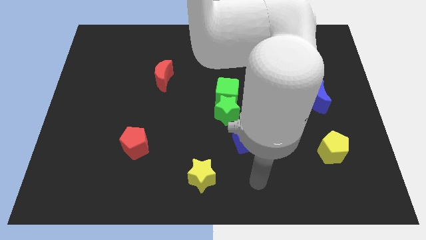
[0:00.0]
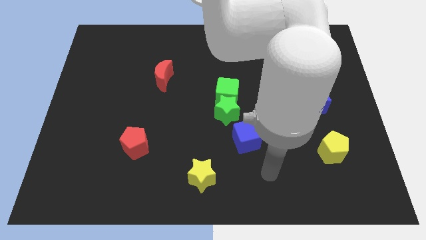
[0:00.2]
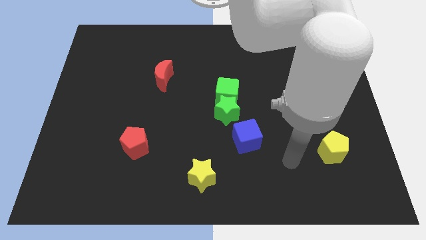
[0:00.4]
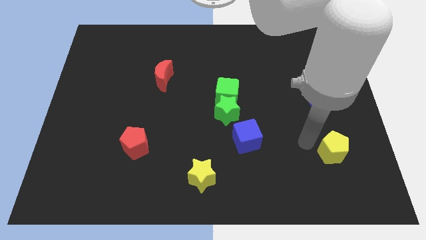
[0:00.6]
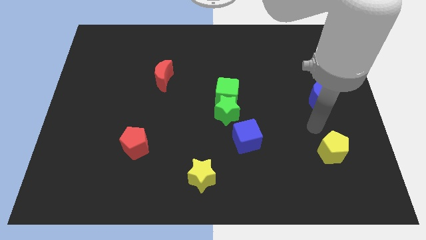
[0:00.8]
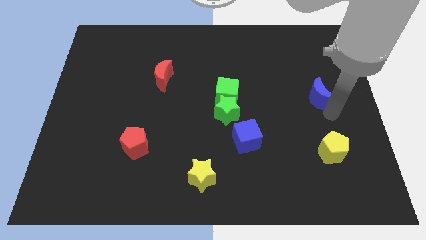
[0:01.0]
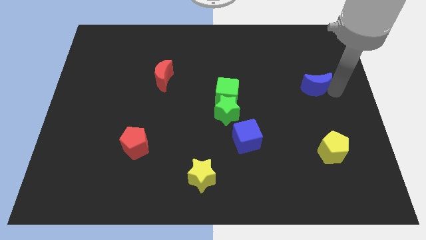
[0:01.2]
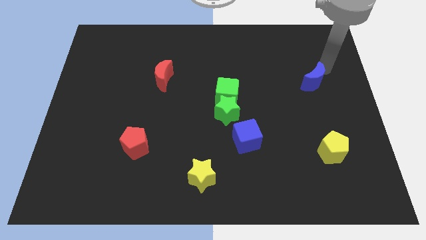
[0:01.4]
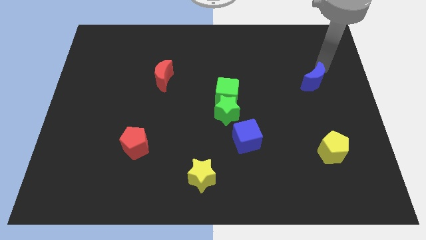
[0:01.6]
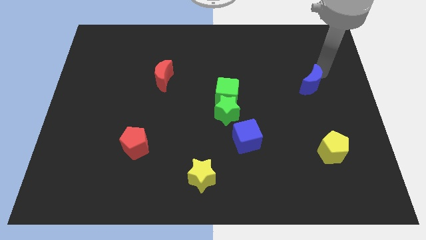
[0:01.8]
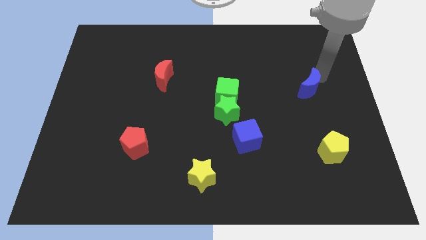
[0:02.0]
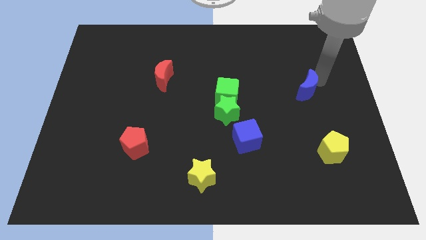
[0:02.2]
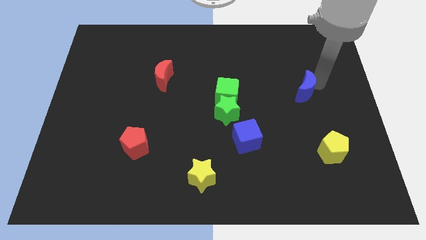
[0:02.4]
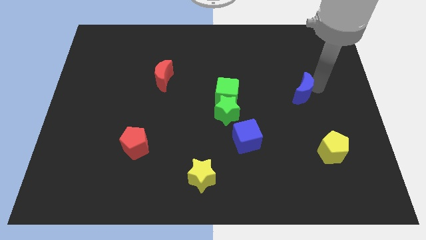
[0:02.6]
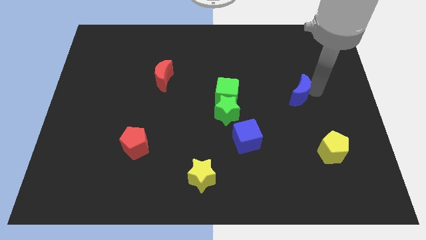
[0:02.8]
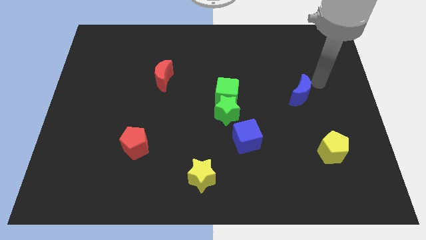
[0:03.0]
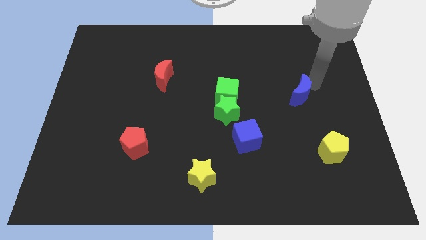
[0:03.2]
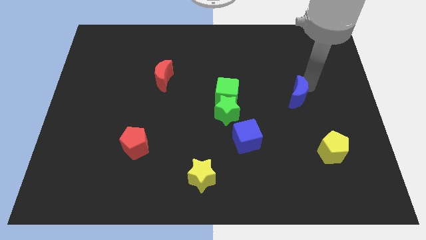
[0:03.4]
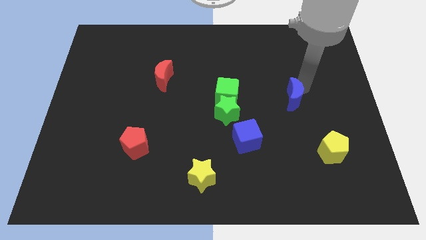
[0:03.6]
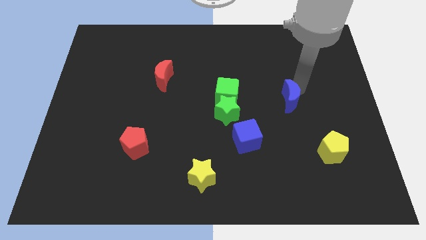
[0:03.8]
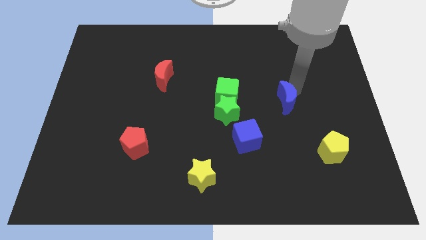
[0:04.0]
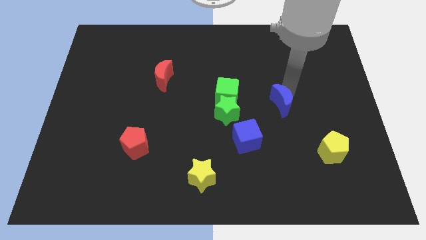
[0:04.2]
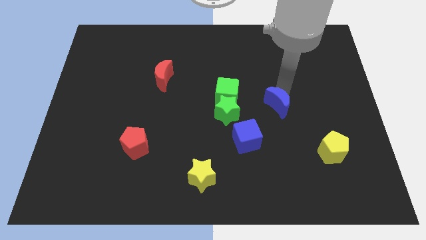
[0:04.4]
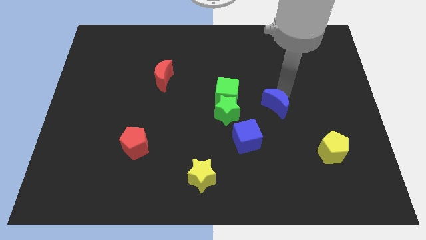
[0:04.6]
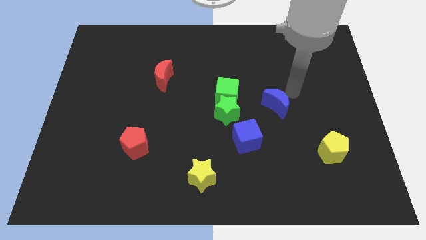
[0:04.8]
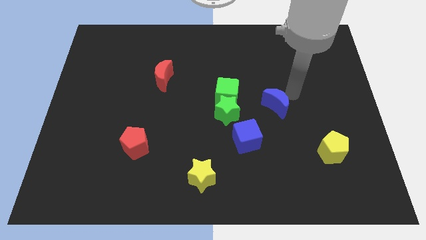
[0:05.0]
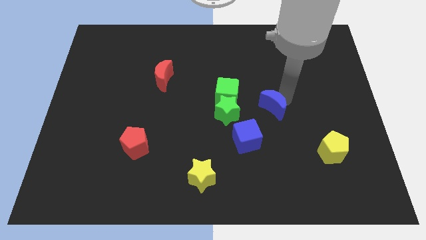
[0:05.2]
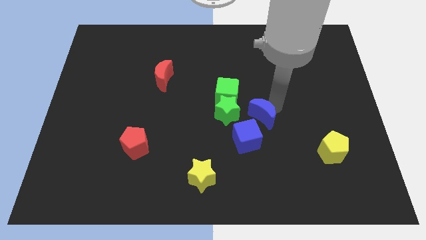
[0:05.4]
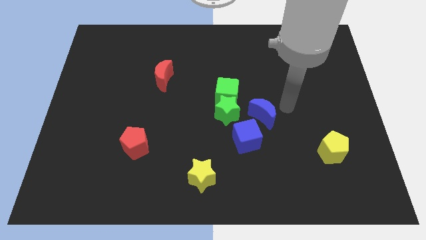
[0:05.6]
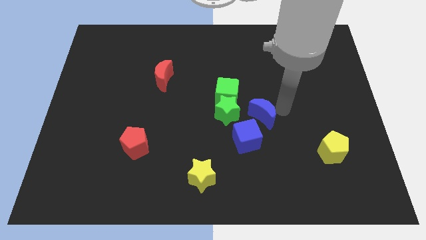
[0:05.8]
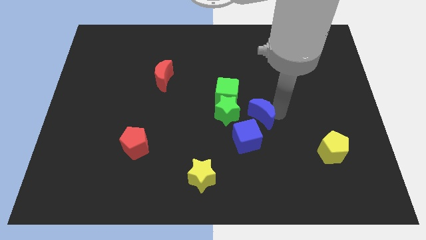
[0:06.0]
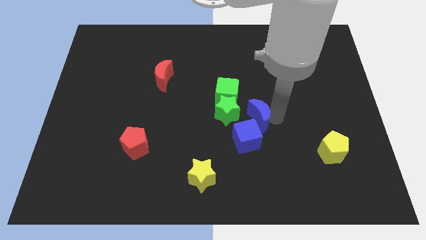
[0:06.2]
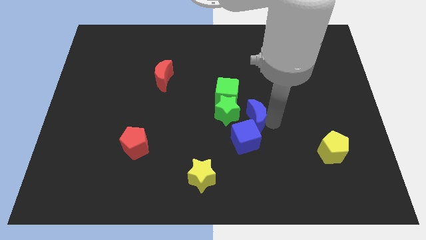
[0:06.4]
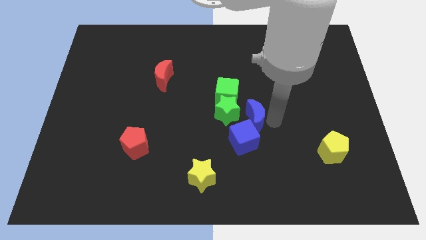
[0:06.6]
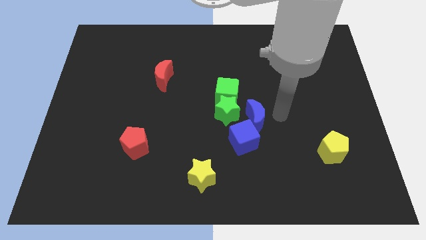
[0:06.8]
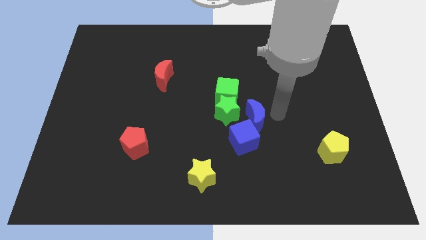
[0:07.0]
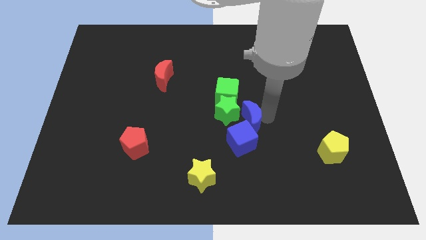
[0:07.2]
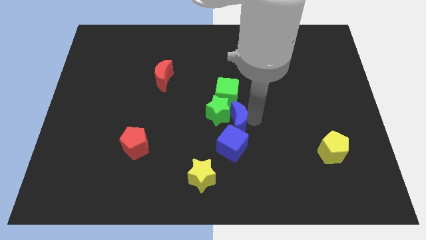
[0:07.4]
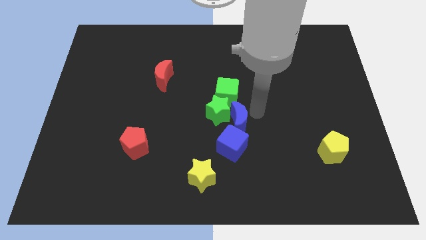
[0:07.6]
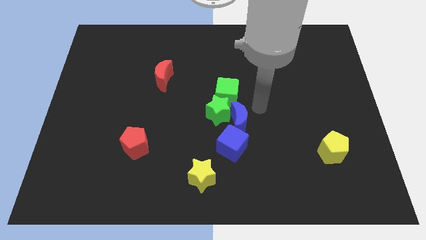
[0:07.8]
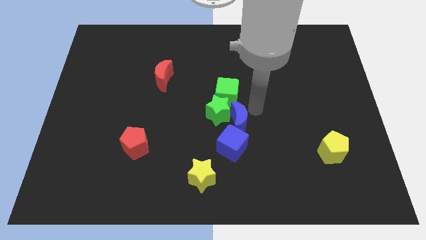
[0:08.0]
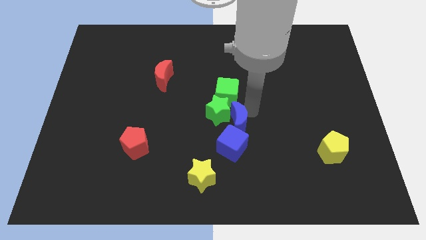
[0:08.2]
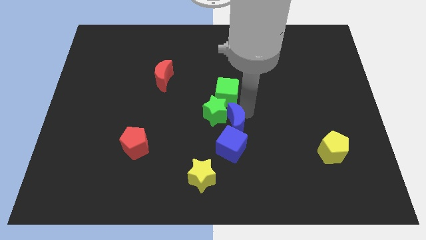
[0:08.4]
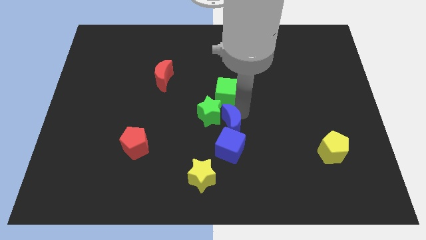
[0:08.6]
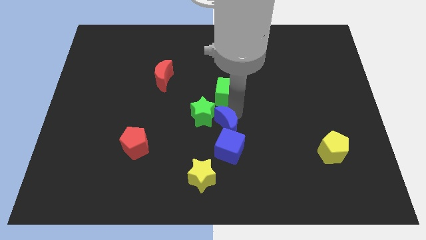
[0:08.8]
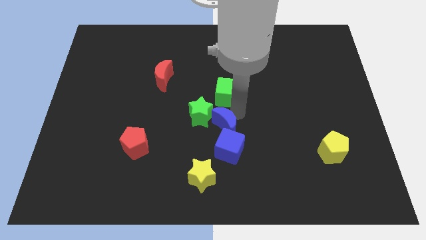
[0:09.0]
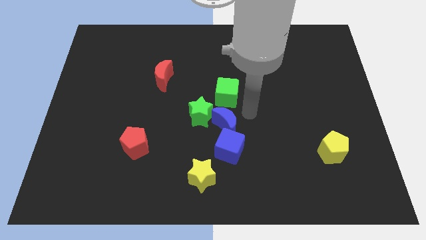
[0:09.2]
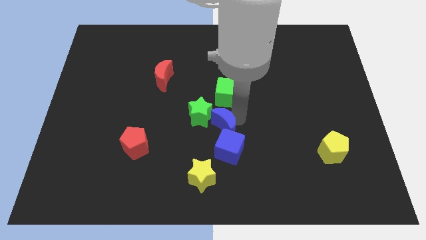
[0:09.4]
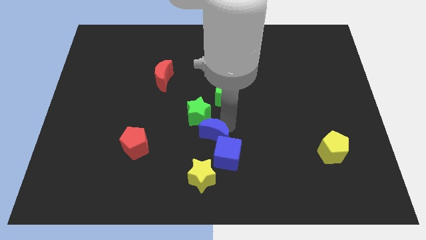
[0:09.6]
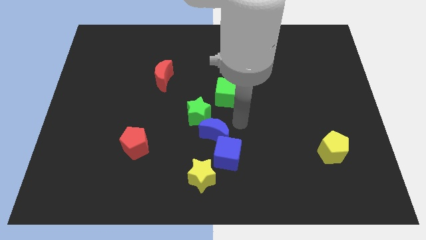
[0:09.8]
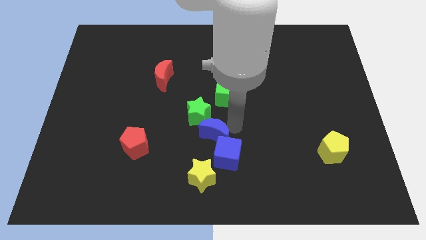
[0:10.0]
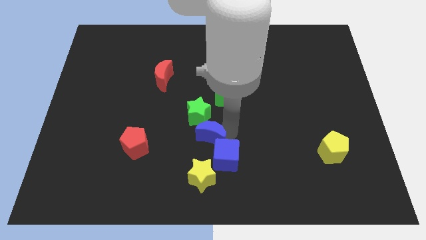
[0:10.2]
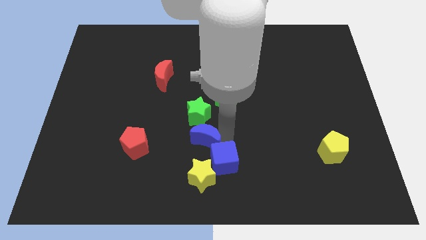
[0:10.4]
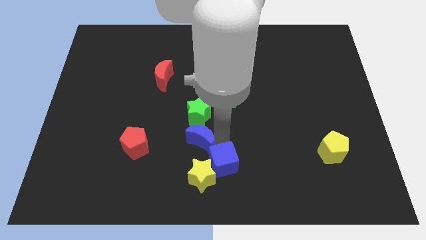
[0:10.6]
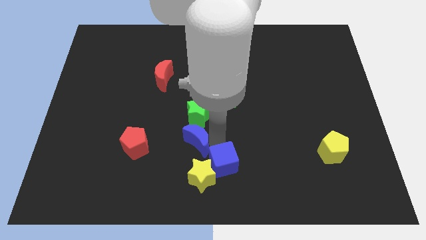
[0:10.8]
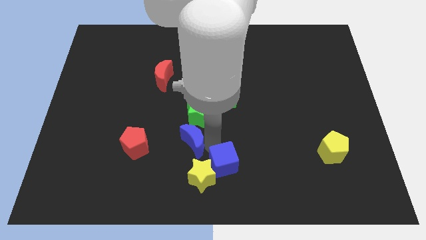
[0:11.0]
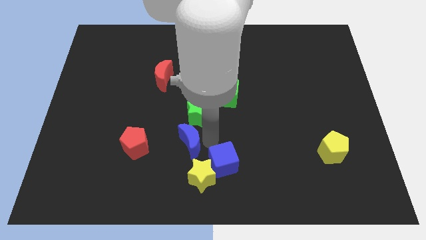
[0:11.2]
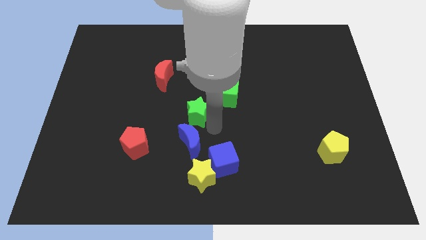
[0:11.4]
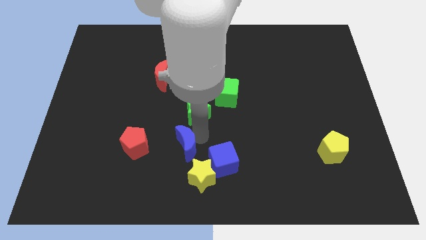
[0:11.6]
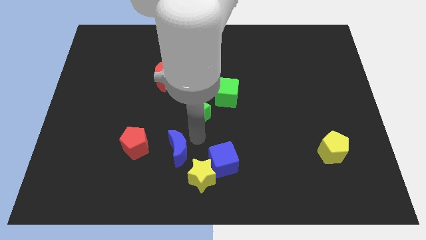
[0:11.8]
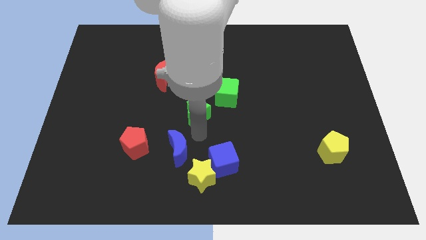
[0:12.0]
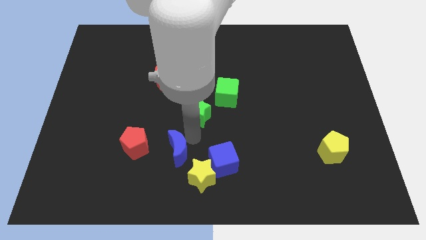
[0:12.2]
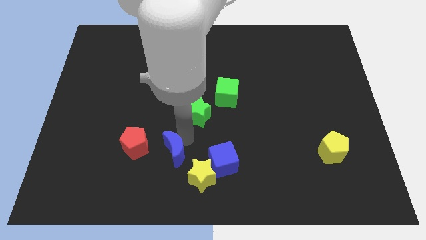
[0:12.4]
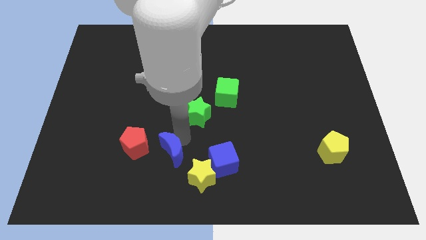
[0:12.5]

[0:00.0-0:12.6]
slide the blue moon to the bottom right of the red pentagon
